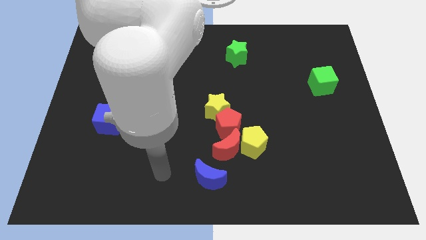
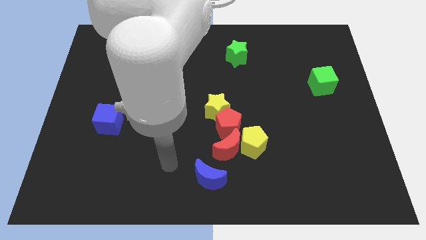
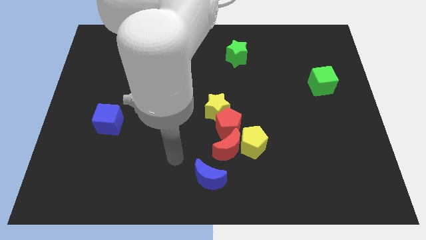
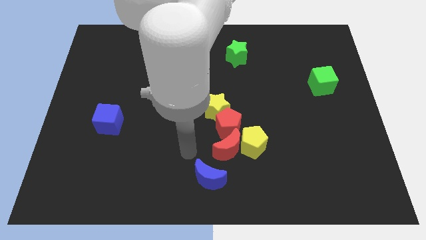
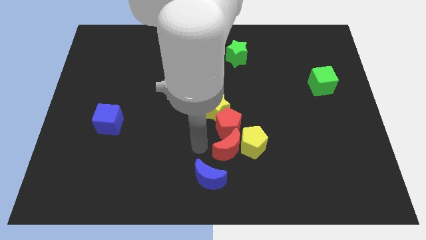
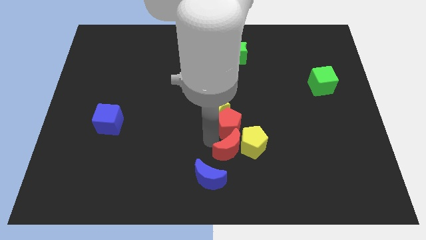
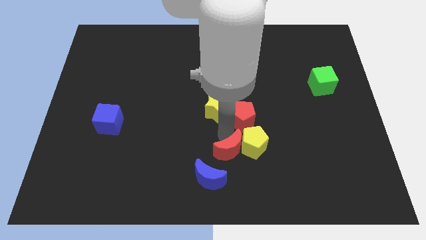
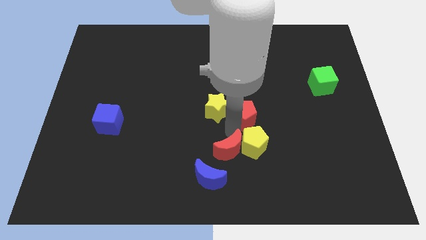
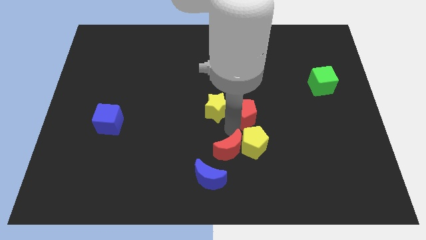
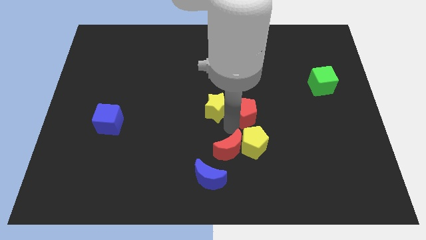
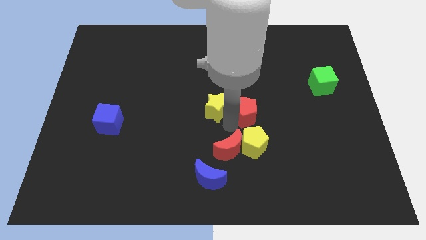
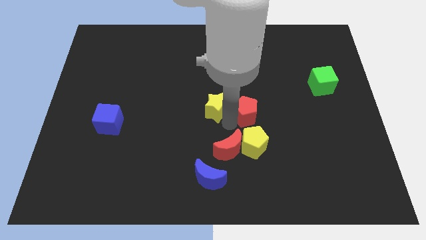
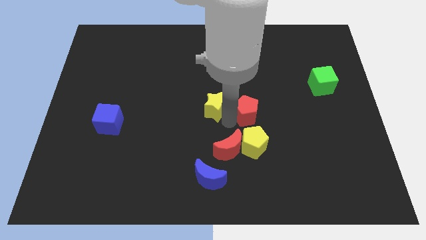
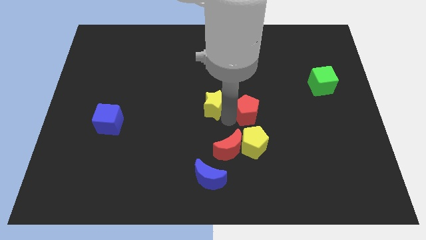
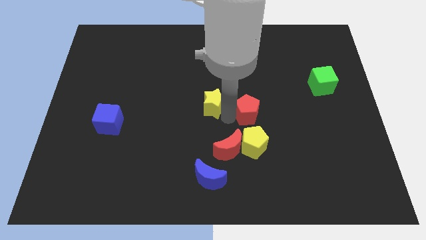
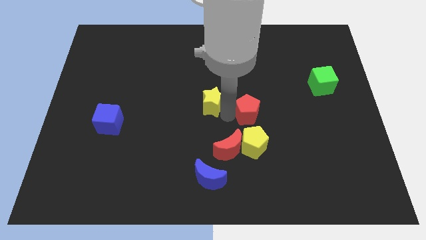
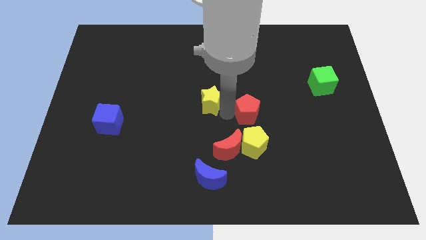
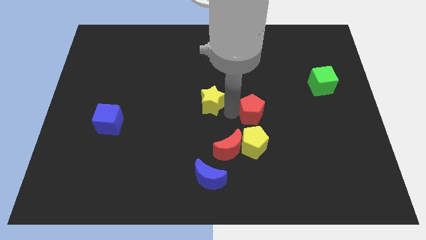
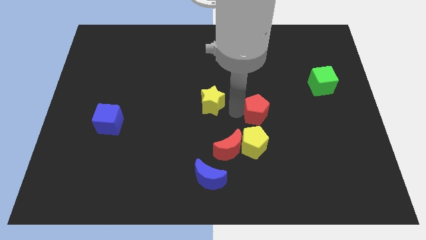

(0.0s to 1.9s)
separate the yellow star from the red pentagon

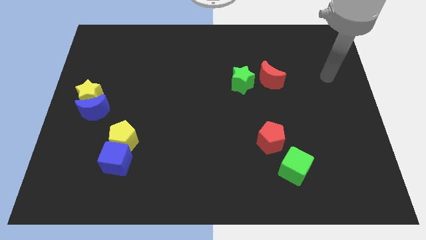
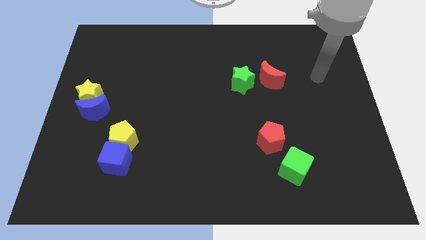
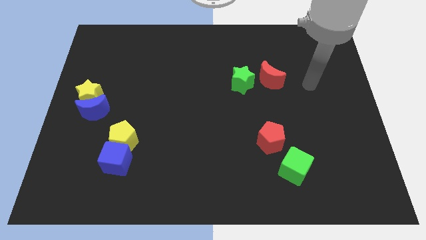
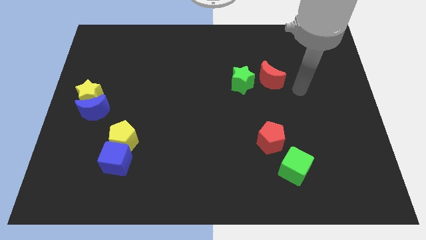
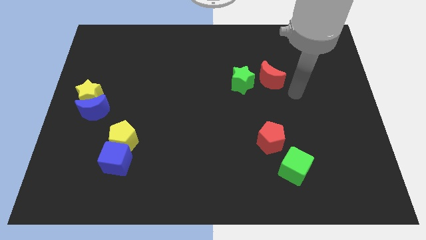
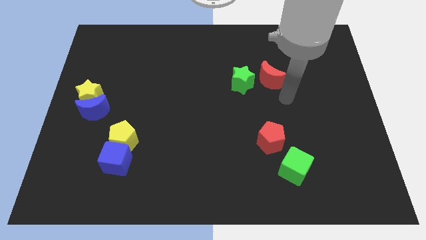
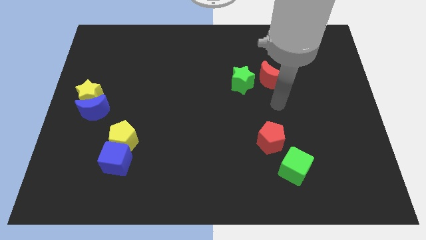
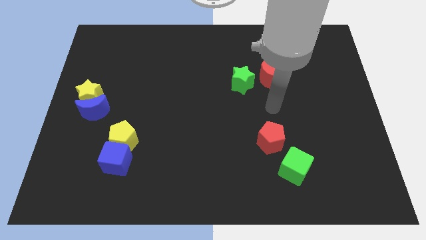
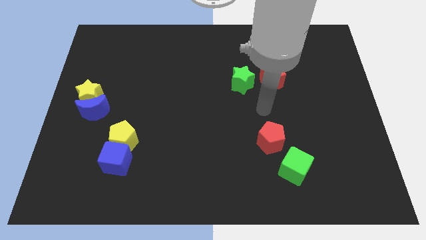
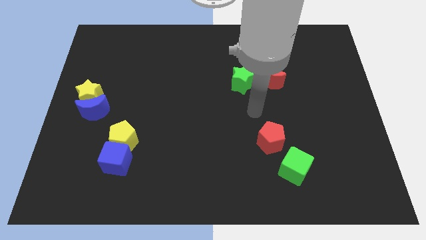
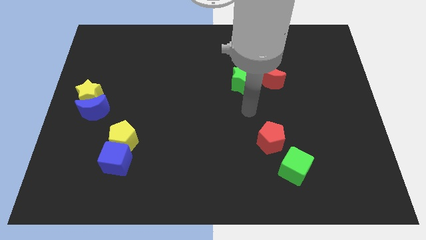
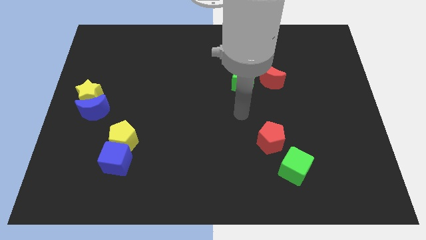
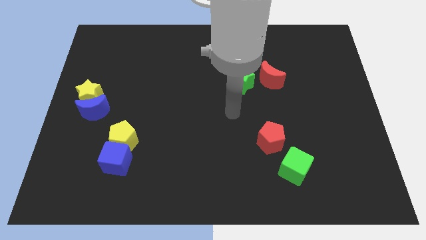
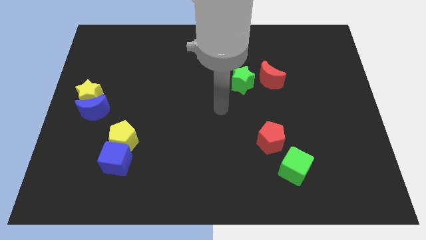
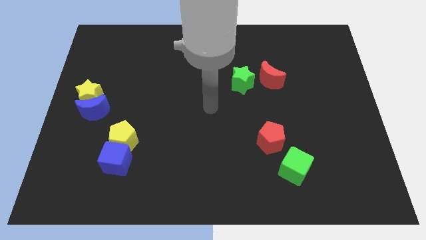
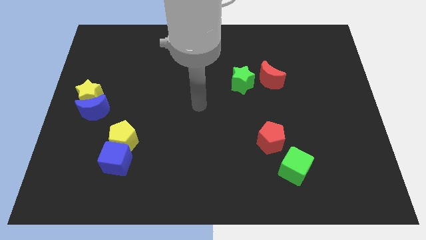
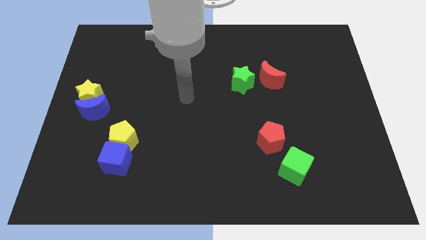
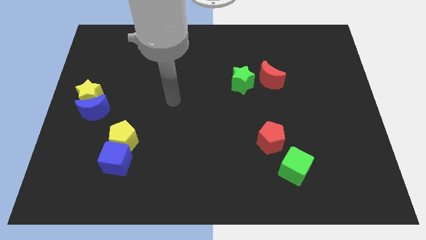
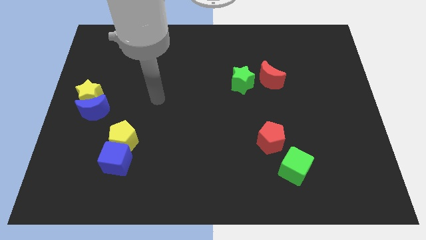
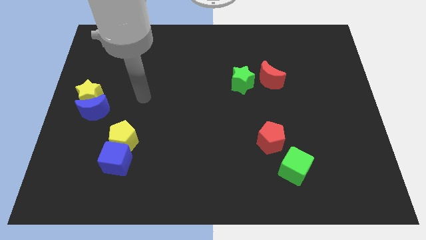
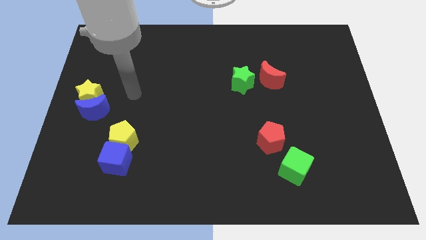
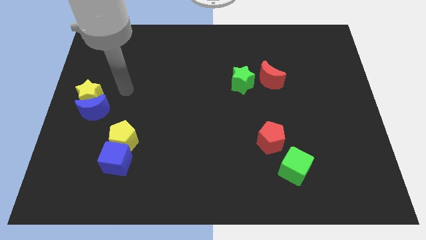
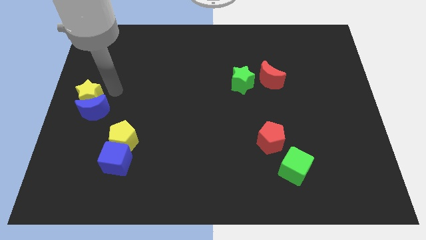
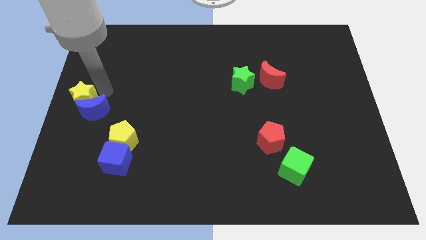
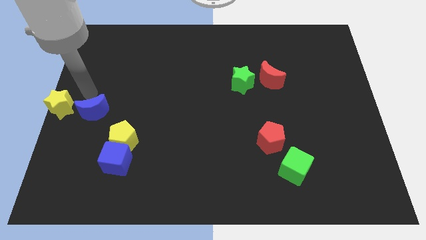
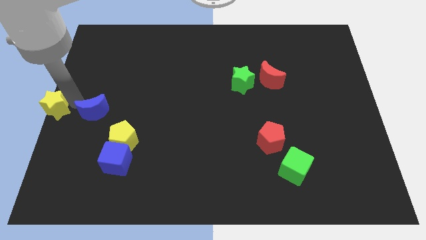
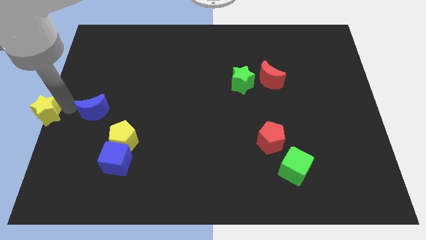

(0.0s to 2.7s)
separate the blue moon from the yellow star

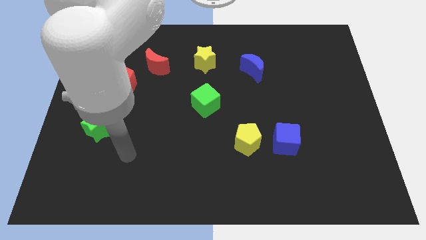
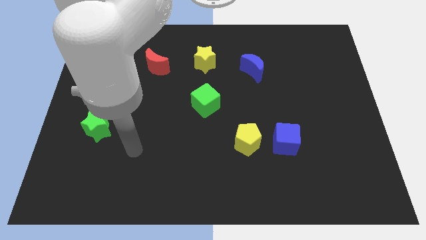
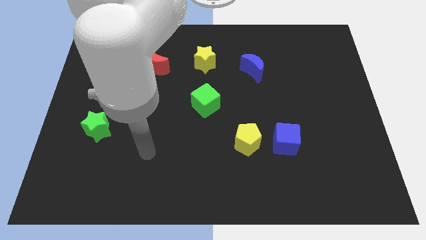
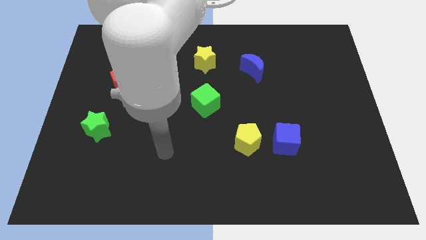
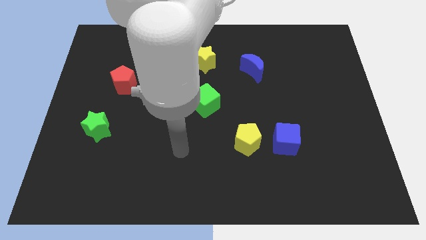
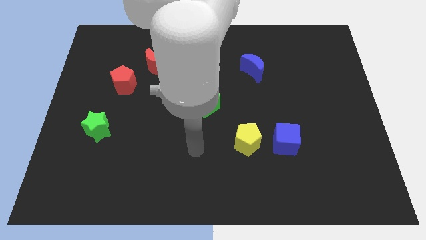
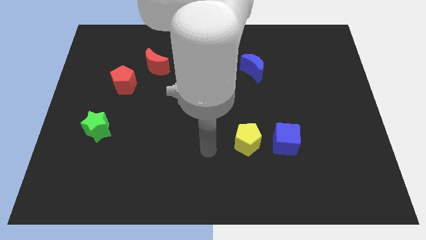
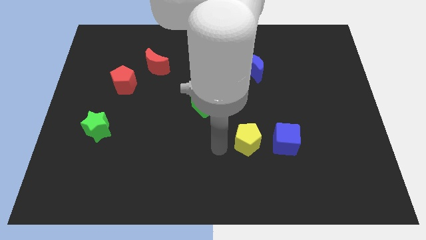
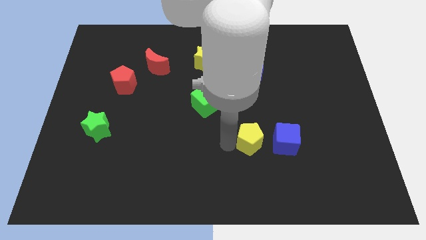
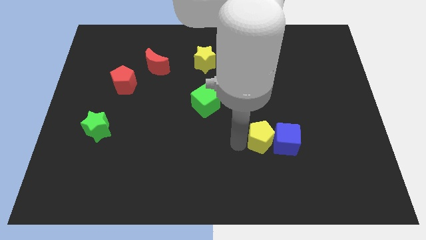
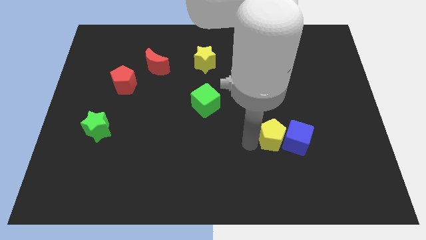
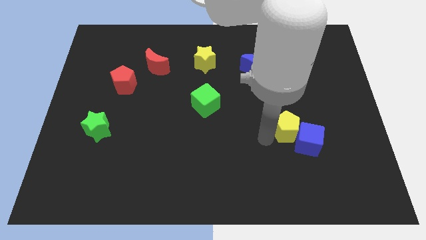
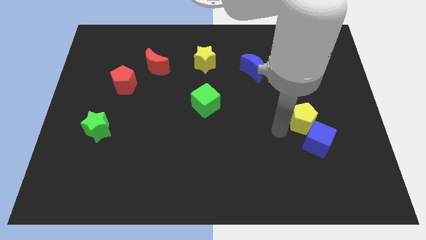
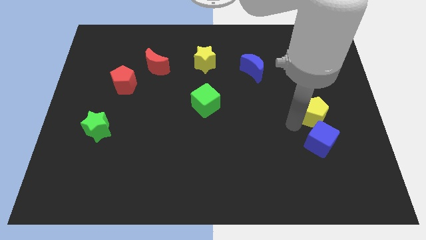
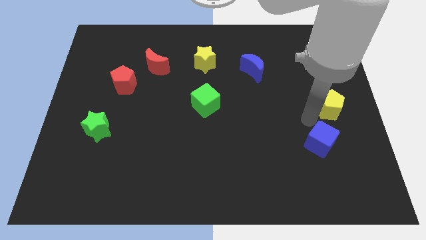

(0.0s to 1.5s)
separate the blue cube from the yellow pentagon

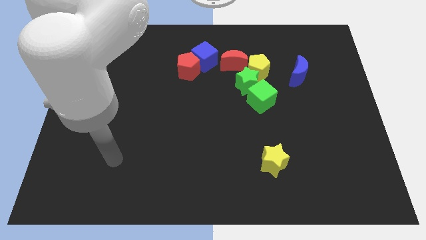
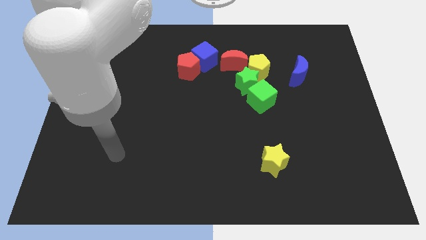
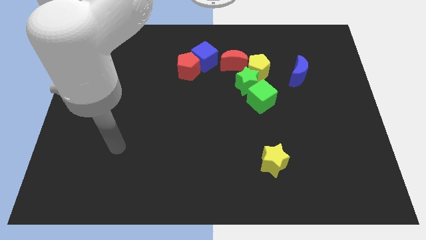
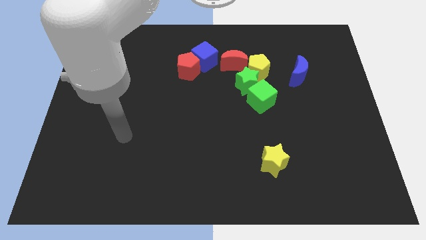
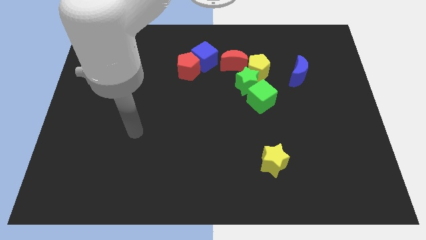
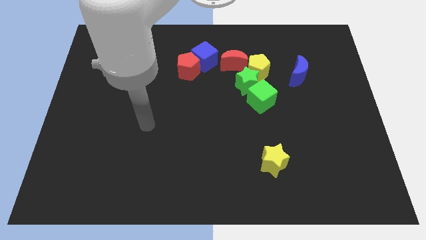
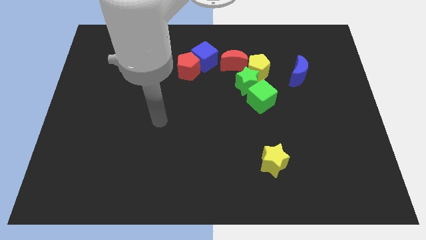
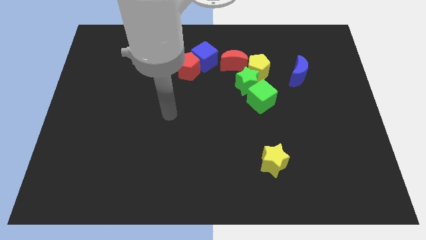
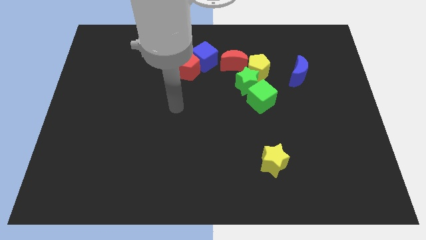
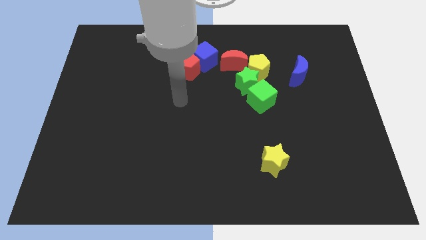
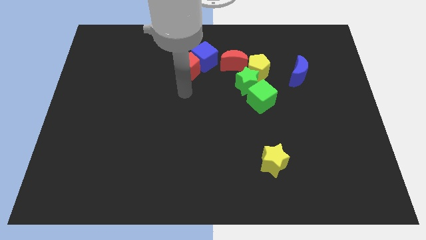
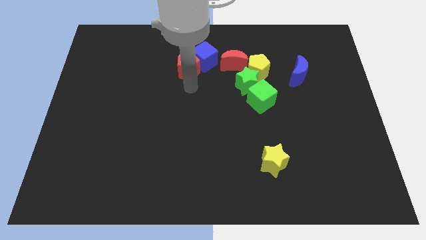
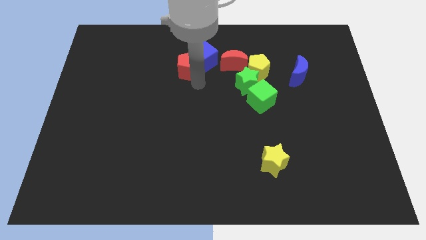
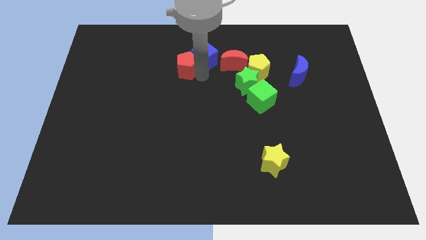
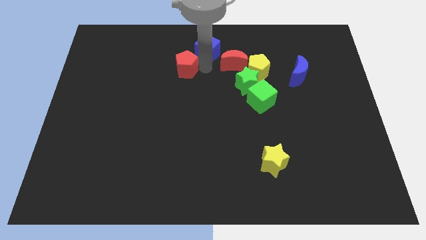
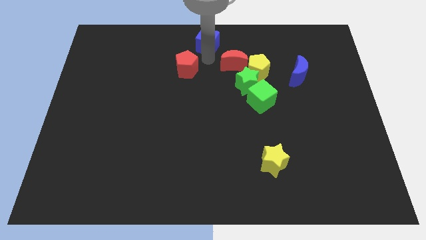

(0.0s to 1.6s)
separate the red pentagon from the blue cube

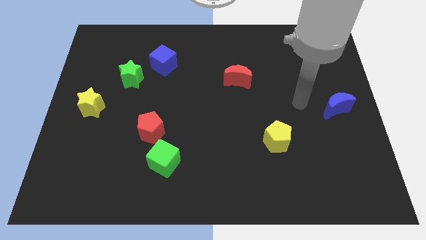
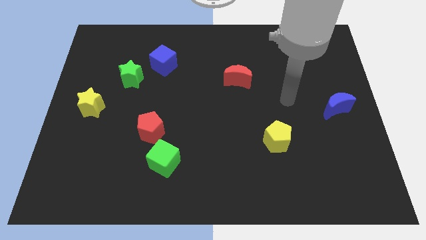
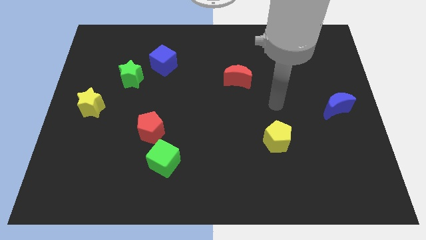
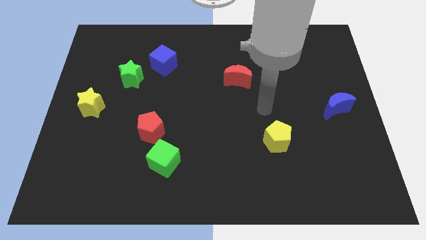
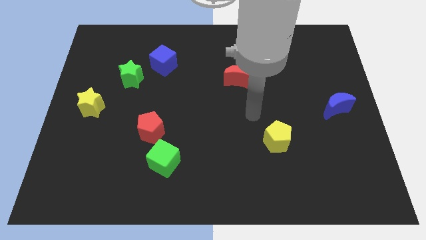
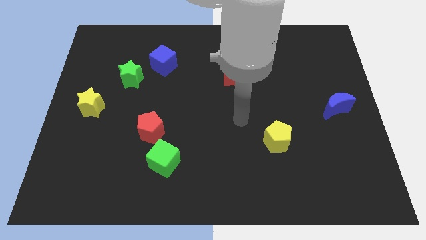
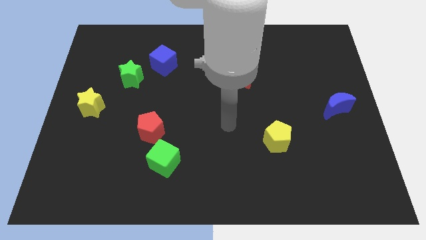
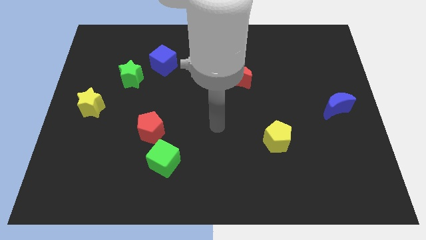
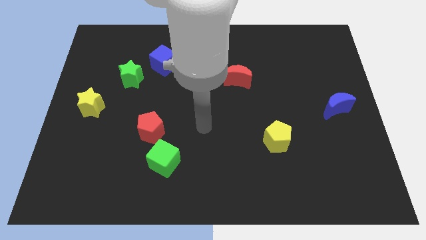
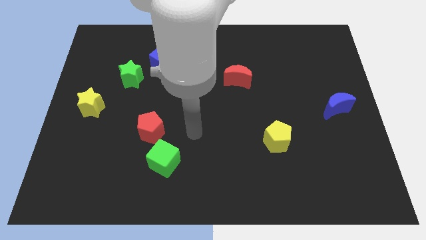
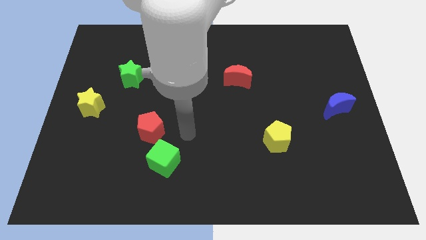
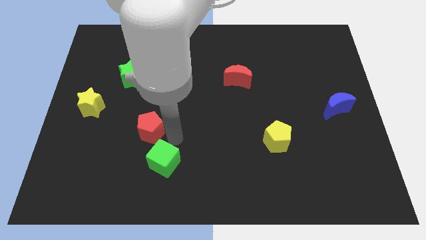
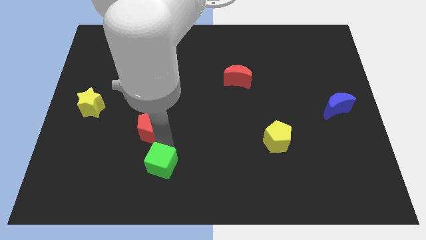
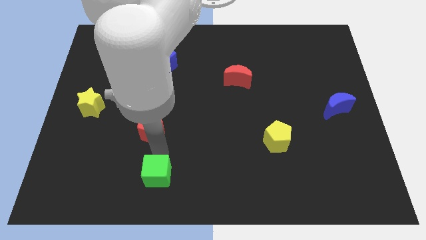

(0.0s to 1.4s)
move the red pentagon away from the green cube

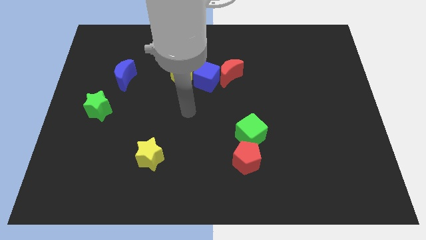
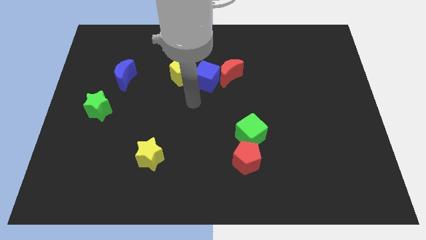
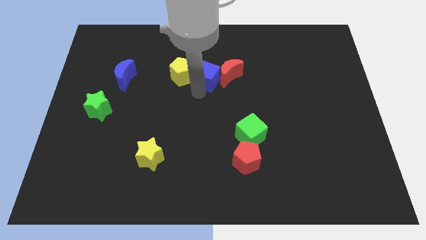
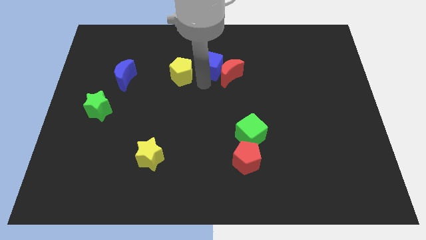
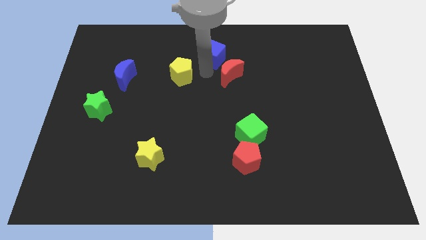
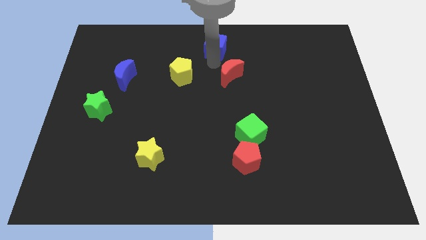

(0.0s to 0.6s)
pull the red moon apart from the blue cube
